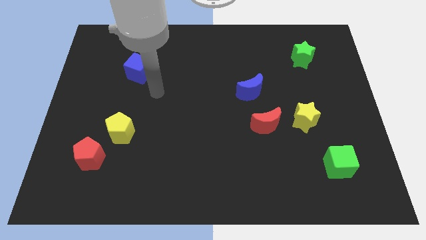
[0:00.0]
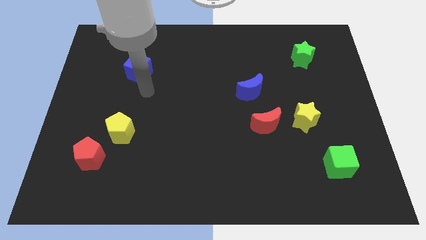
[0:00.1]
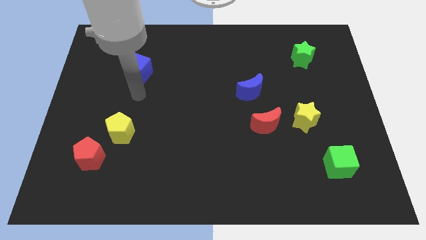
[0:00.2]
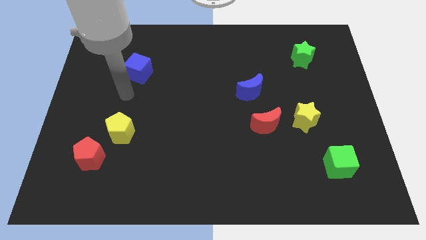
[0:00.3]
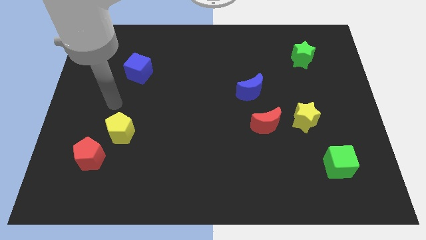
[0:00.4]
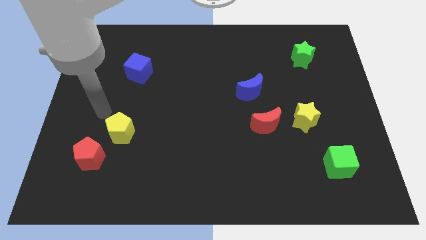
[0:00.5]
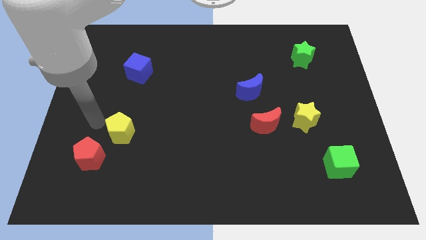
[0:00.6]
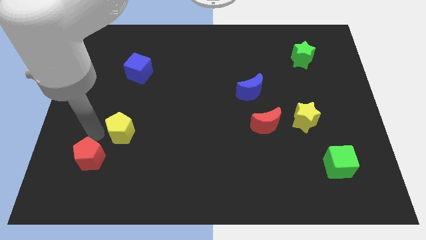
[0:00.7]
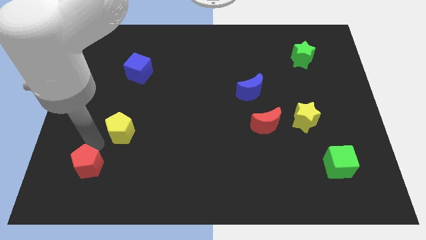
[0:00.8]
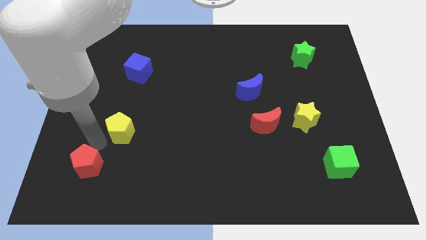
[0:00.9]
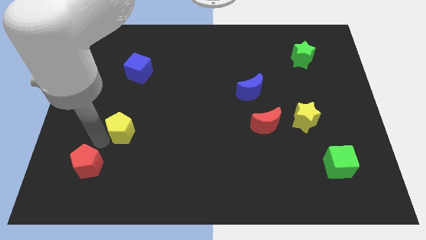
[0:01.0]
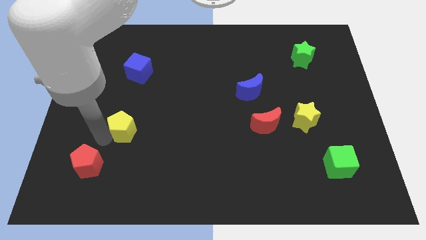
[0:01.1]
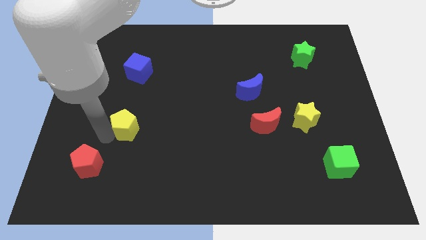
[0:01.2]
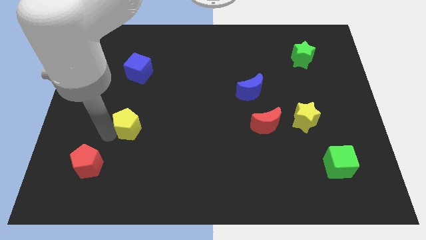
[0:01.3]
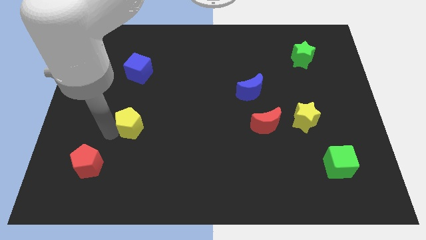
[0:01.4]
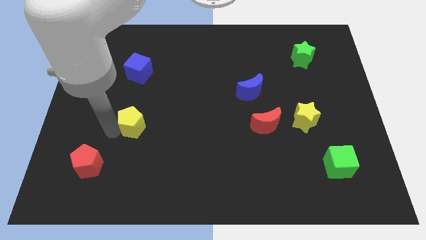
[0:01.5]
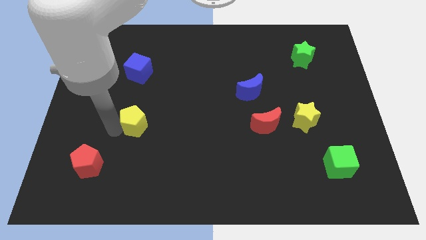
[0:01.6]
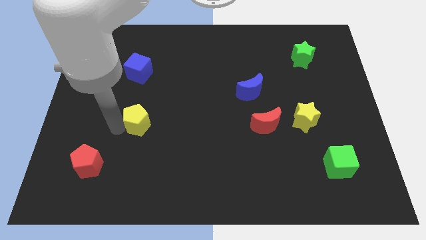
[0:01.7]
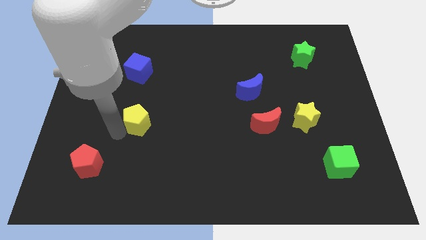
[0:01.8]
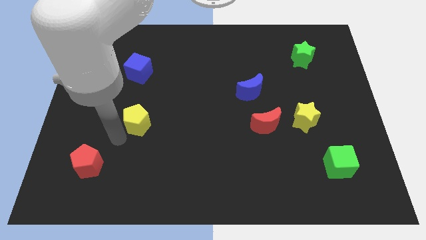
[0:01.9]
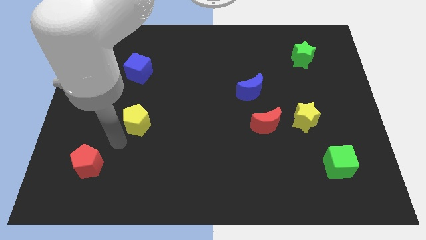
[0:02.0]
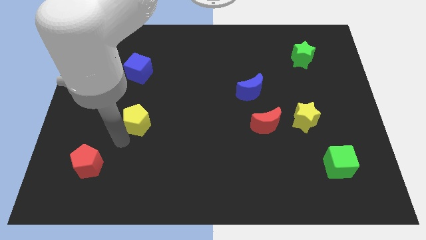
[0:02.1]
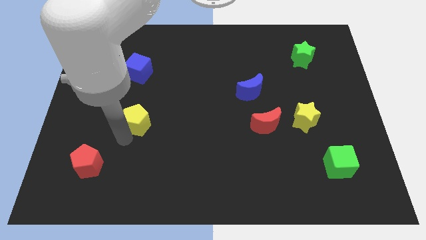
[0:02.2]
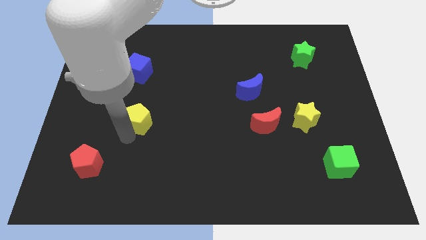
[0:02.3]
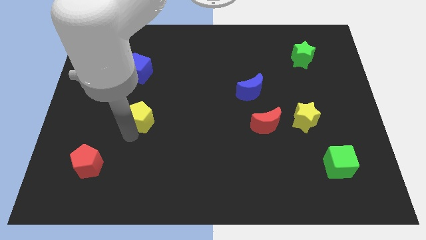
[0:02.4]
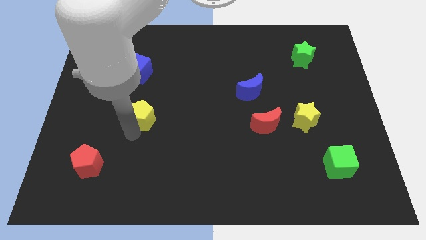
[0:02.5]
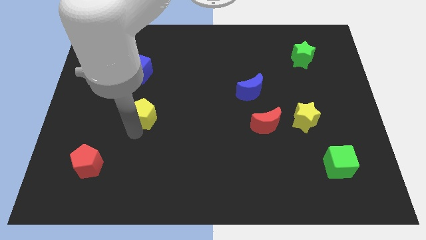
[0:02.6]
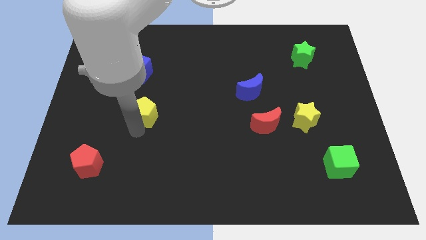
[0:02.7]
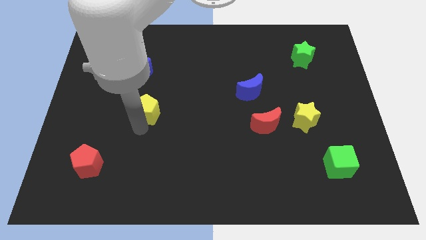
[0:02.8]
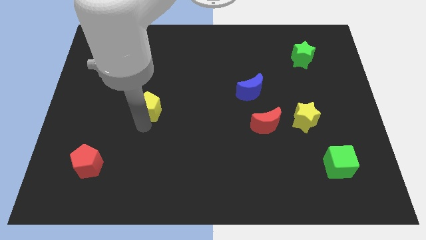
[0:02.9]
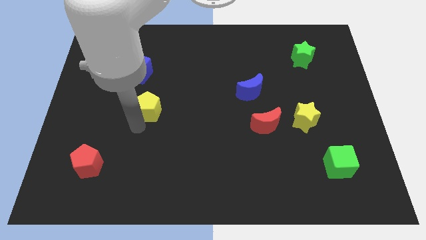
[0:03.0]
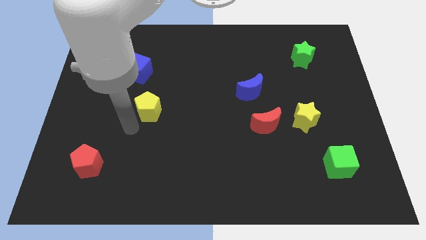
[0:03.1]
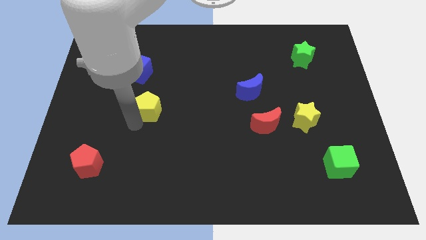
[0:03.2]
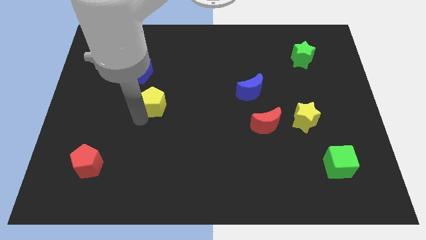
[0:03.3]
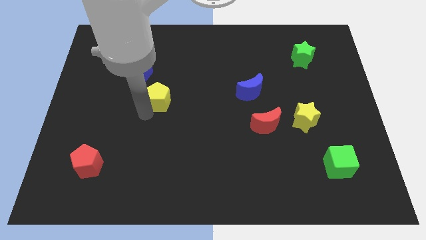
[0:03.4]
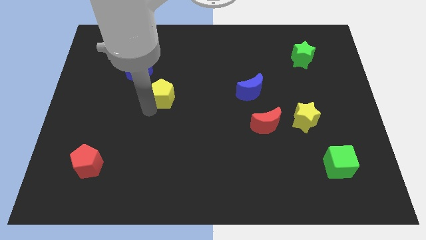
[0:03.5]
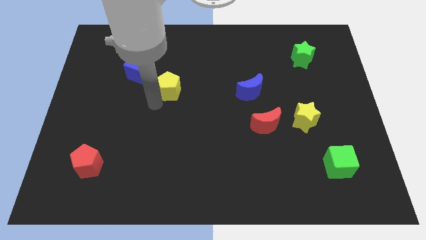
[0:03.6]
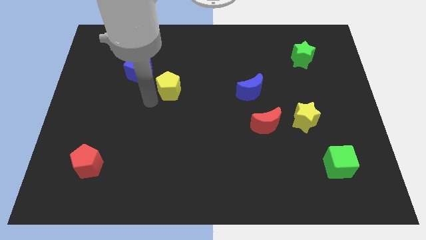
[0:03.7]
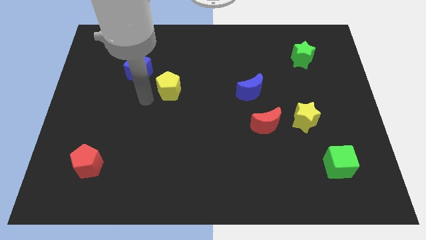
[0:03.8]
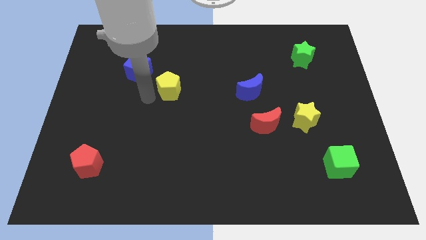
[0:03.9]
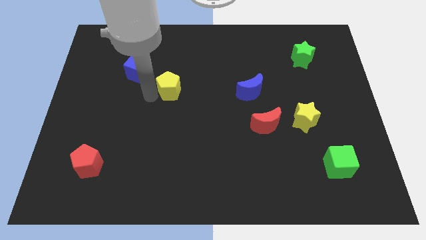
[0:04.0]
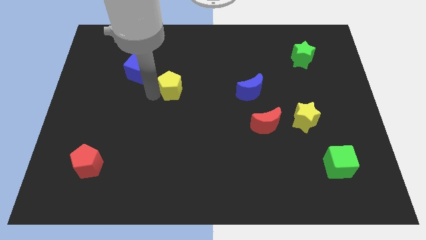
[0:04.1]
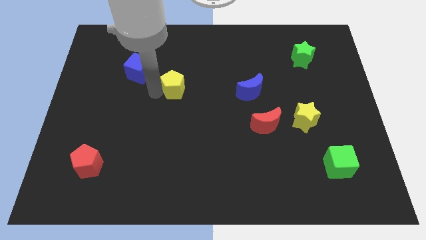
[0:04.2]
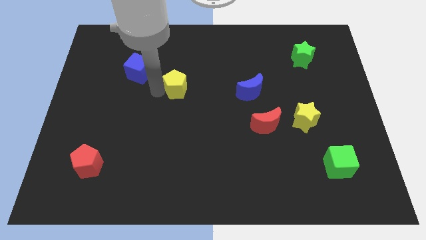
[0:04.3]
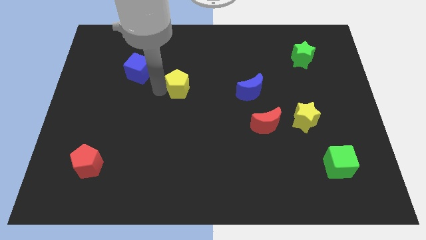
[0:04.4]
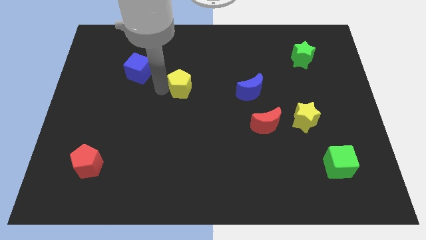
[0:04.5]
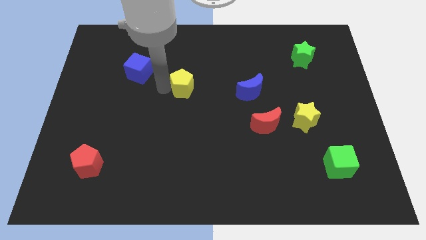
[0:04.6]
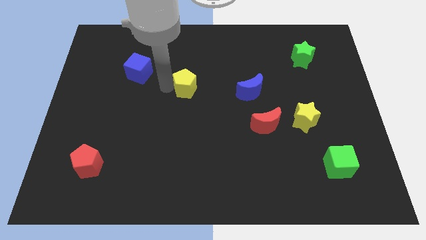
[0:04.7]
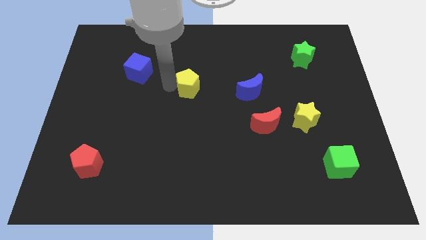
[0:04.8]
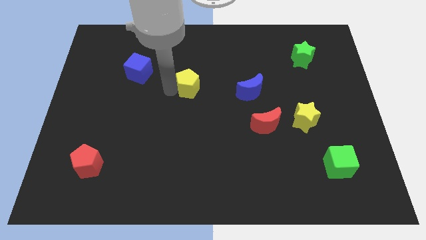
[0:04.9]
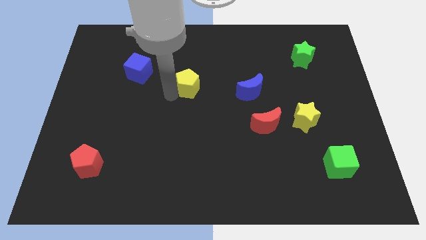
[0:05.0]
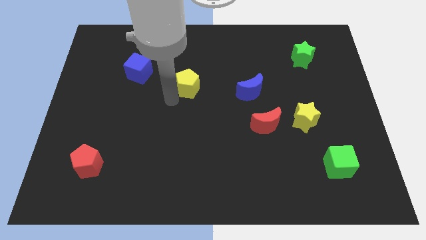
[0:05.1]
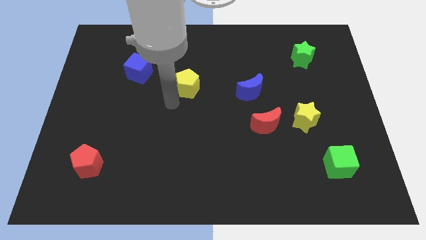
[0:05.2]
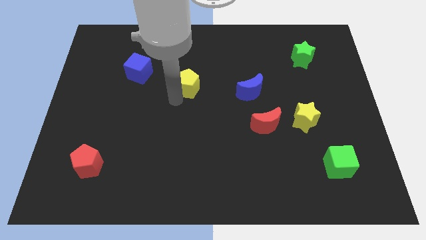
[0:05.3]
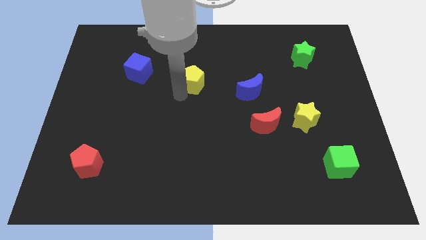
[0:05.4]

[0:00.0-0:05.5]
slide the yellow pentagon up and right

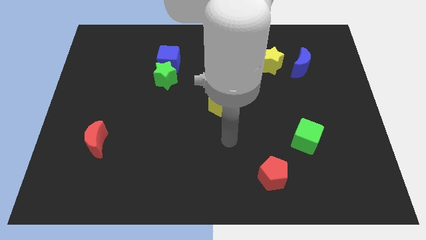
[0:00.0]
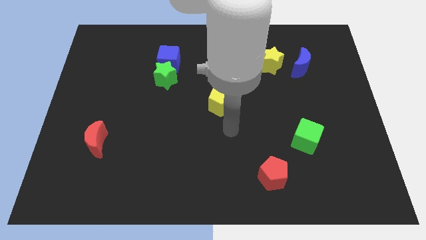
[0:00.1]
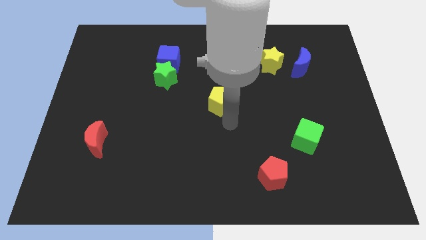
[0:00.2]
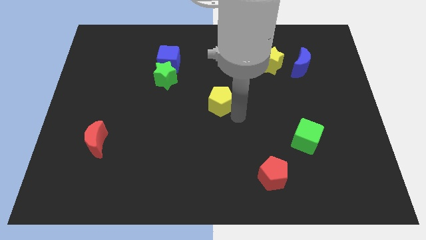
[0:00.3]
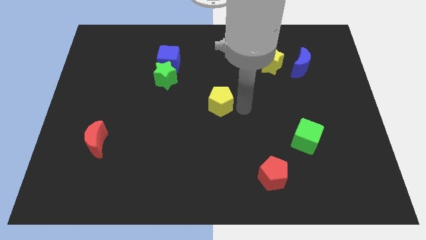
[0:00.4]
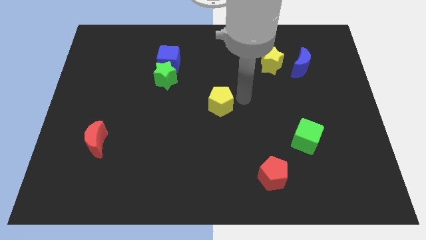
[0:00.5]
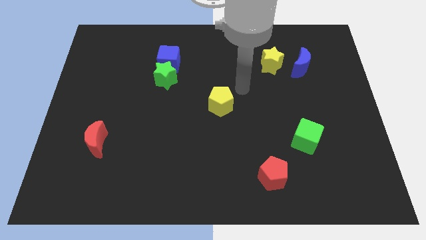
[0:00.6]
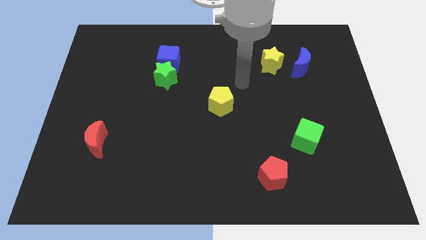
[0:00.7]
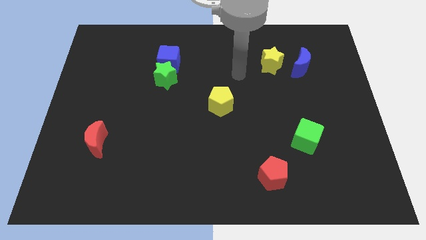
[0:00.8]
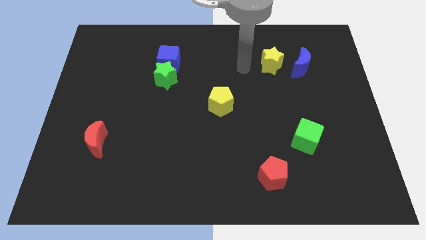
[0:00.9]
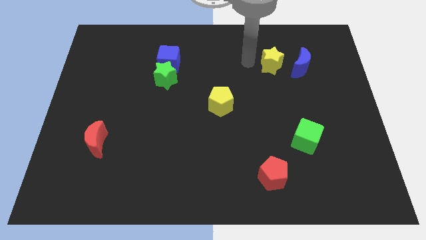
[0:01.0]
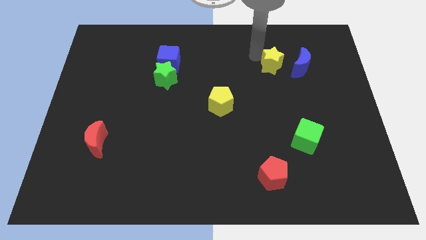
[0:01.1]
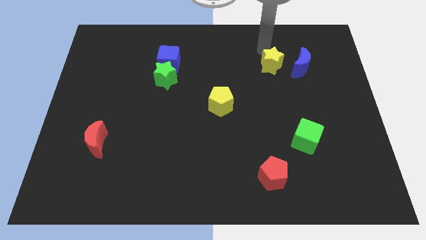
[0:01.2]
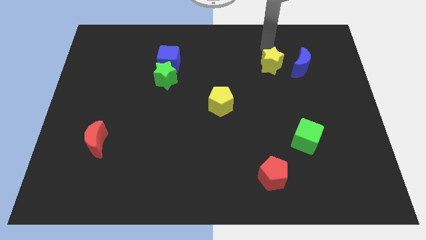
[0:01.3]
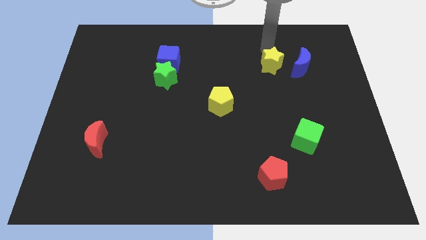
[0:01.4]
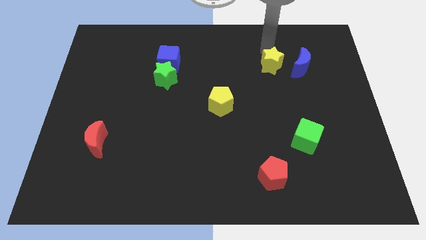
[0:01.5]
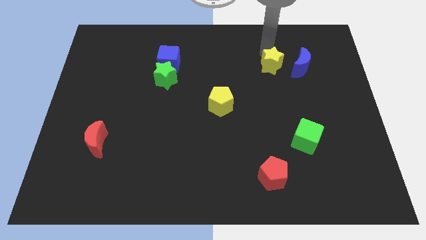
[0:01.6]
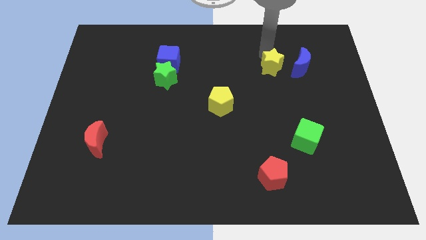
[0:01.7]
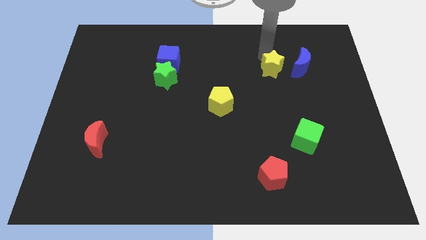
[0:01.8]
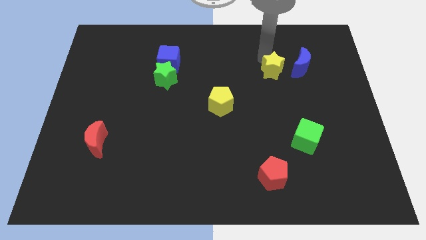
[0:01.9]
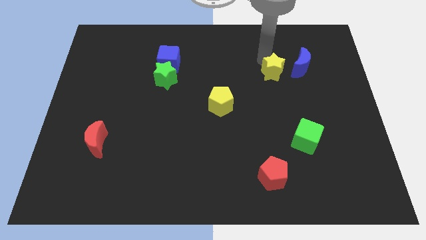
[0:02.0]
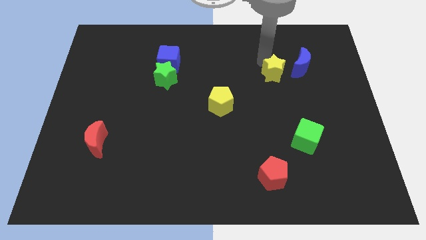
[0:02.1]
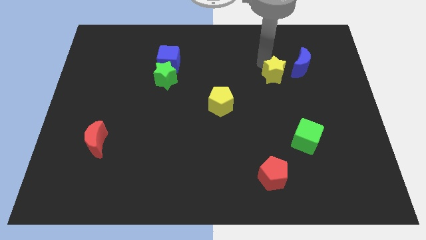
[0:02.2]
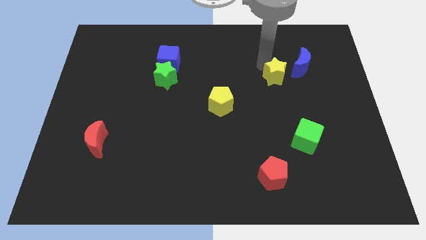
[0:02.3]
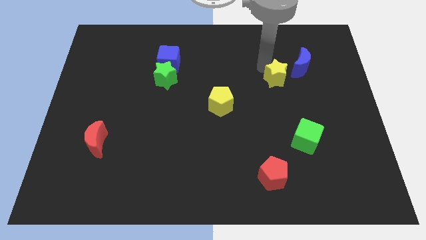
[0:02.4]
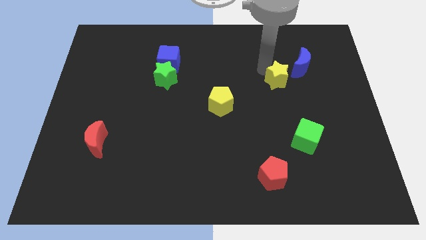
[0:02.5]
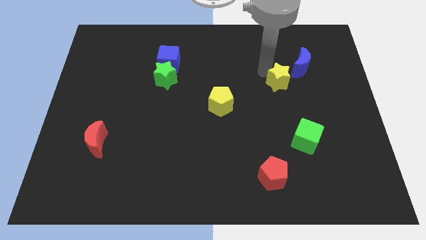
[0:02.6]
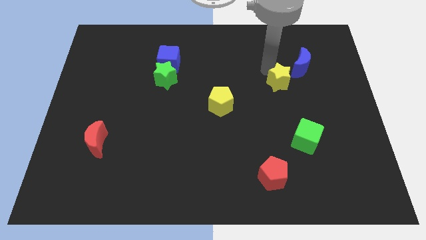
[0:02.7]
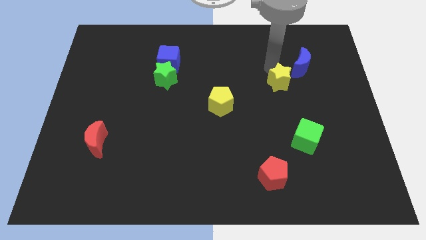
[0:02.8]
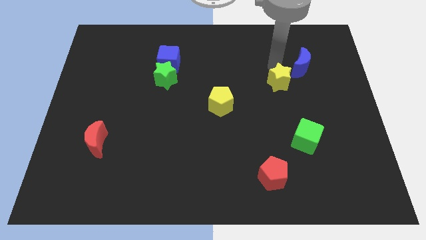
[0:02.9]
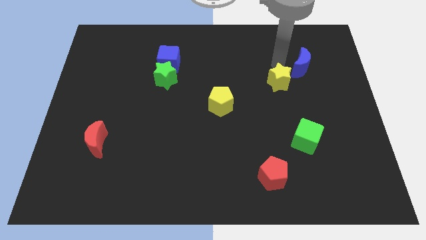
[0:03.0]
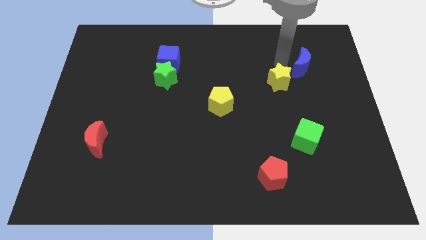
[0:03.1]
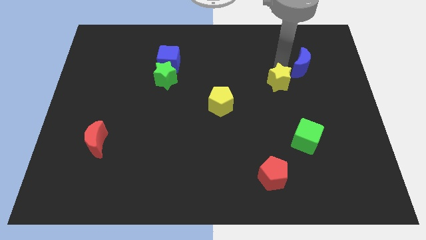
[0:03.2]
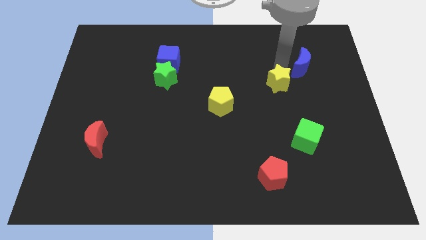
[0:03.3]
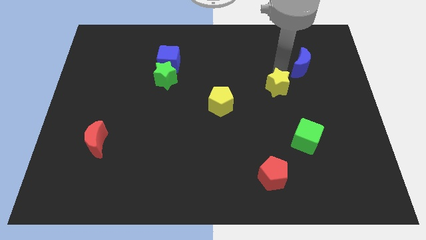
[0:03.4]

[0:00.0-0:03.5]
slightly slide the yellow star down
